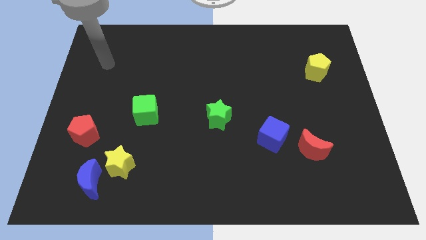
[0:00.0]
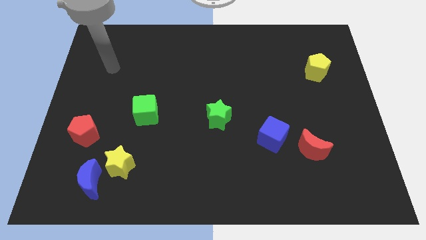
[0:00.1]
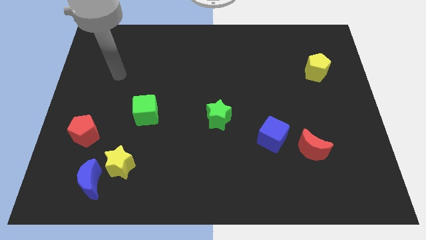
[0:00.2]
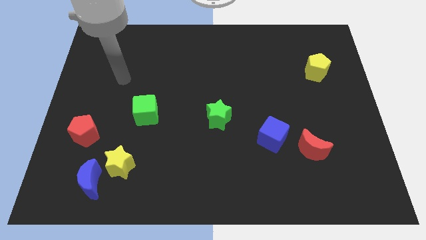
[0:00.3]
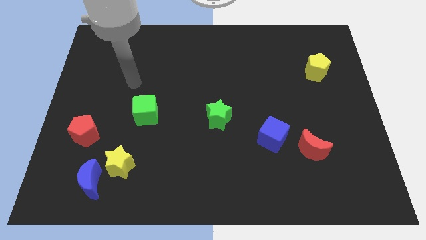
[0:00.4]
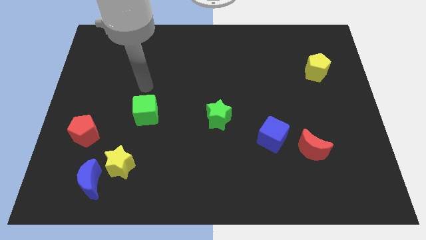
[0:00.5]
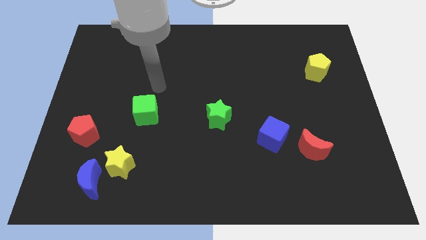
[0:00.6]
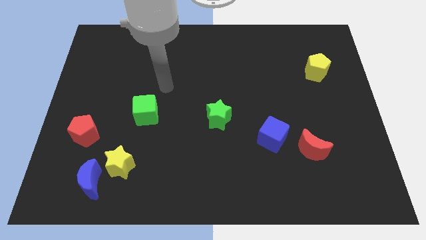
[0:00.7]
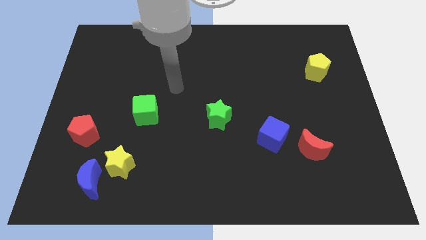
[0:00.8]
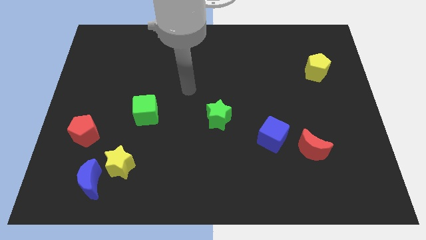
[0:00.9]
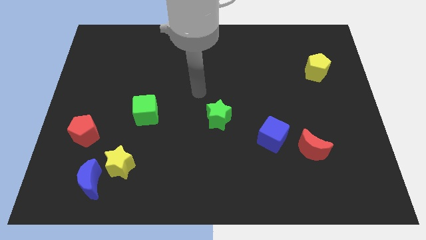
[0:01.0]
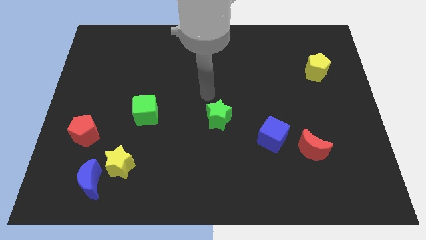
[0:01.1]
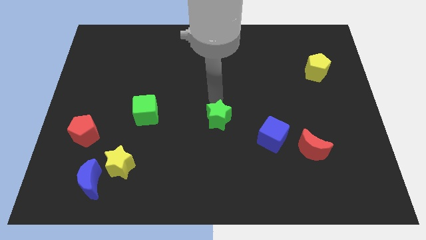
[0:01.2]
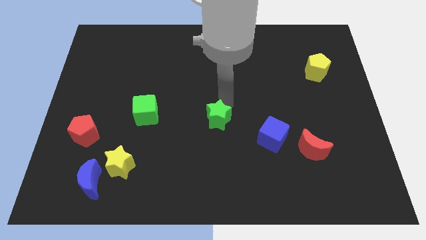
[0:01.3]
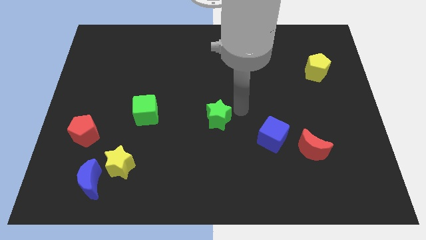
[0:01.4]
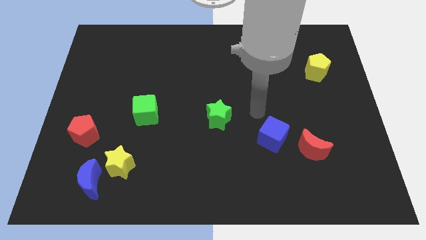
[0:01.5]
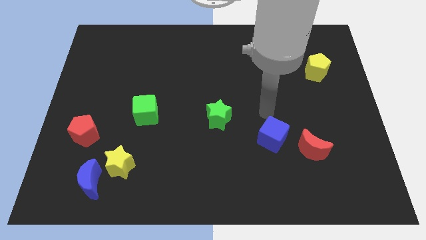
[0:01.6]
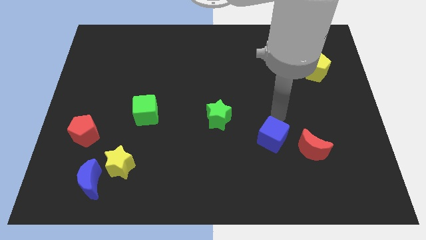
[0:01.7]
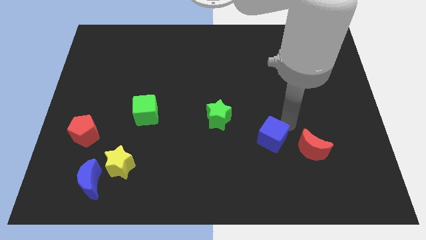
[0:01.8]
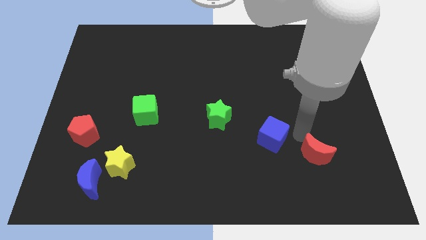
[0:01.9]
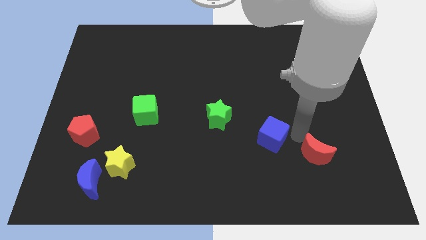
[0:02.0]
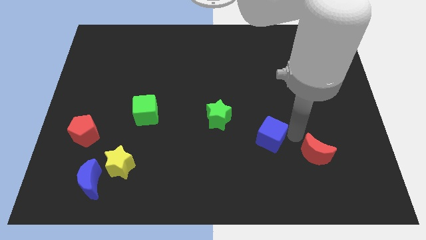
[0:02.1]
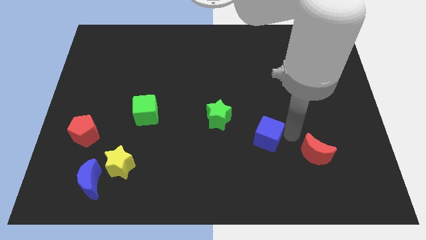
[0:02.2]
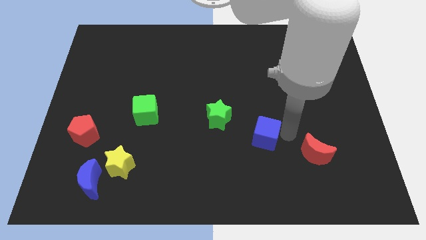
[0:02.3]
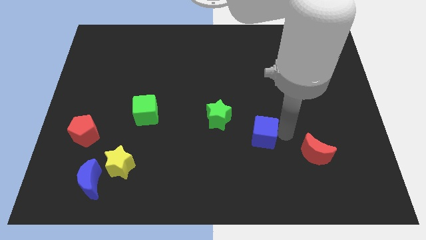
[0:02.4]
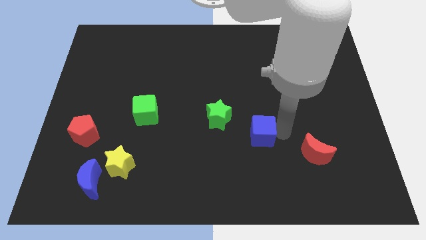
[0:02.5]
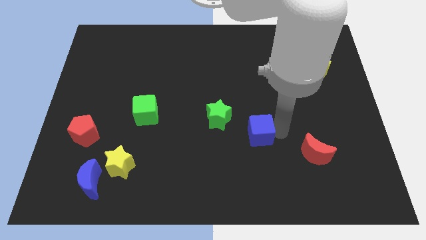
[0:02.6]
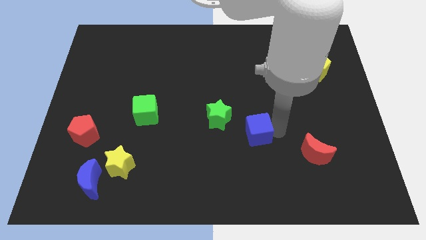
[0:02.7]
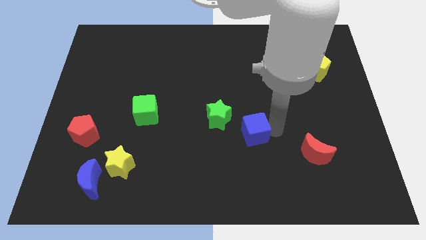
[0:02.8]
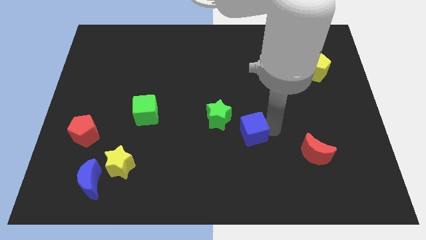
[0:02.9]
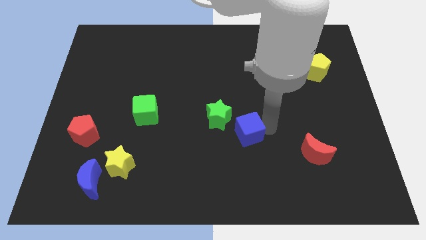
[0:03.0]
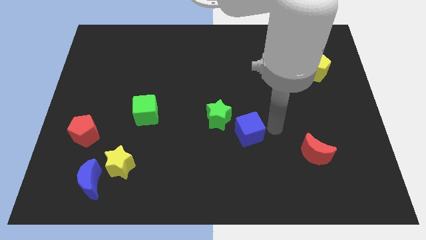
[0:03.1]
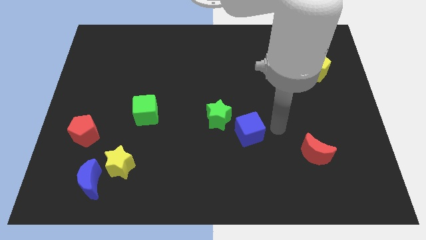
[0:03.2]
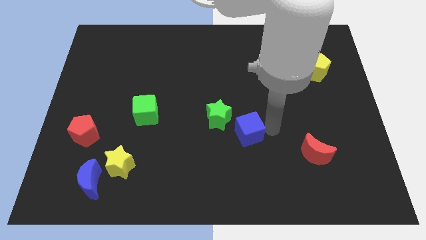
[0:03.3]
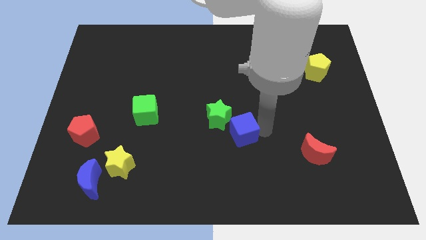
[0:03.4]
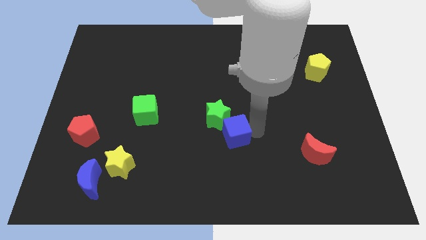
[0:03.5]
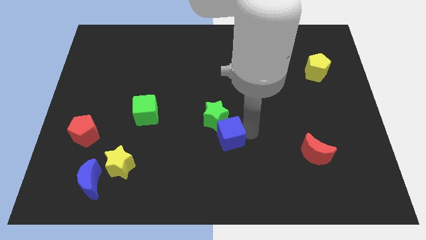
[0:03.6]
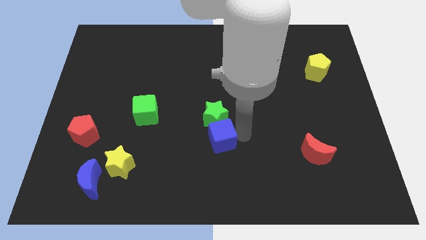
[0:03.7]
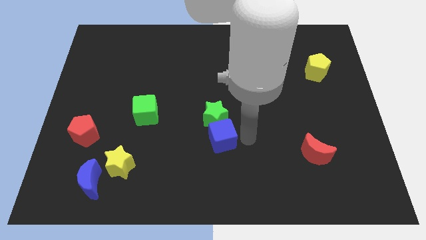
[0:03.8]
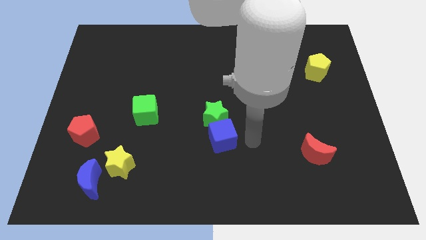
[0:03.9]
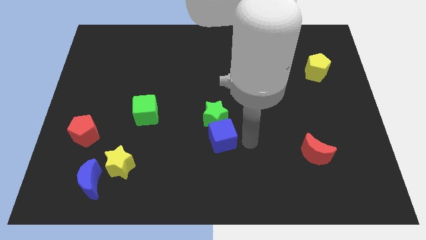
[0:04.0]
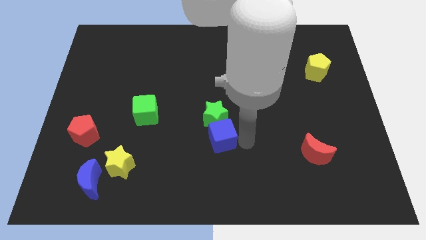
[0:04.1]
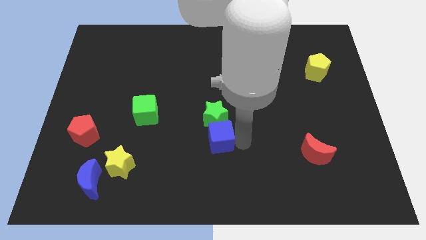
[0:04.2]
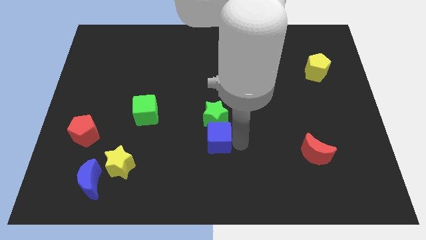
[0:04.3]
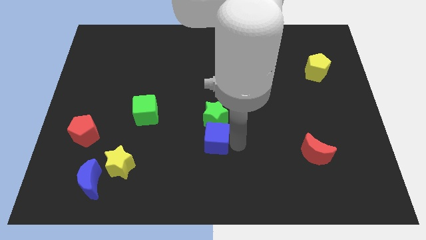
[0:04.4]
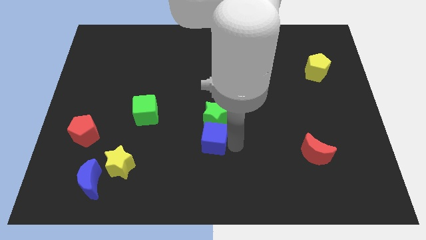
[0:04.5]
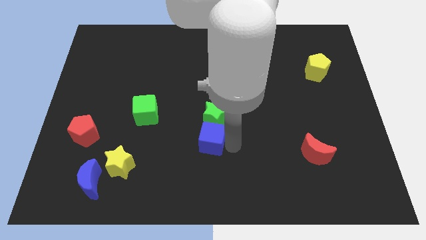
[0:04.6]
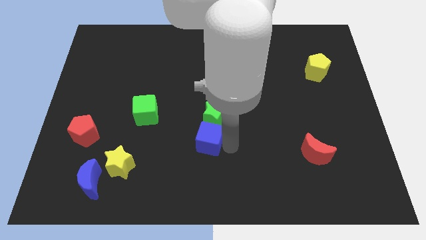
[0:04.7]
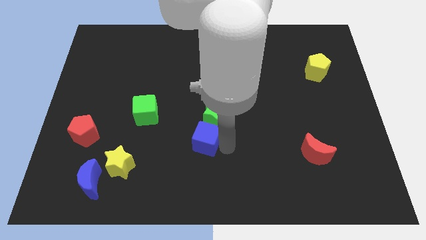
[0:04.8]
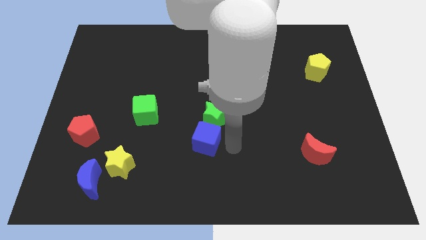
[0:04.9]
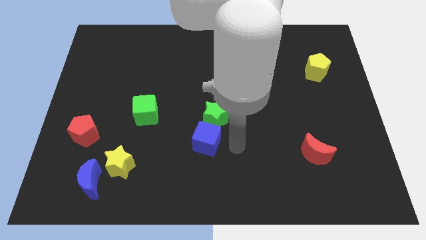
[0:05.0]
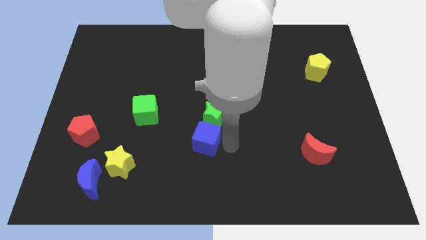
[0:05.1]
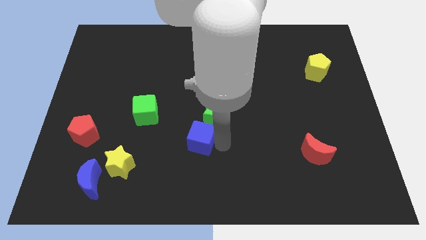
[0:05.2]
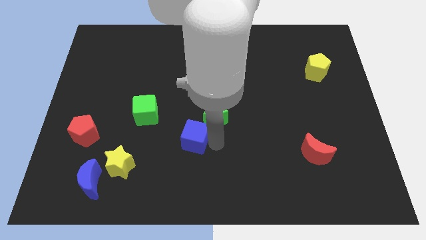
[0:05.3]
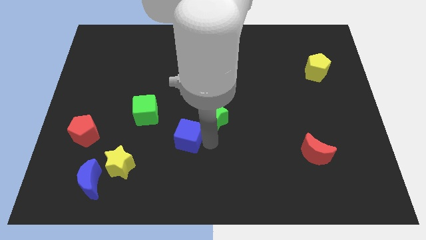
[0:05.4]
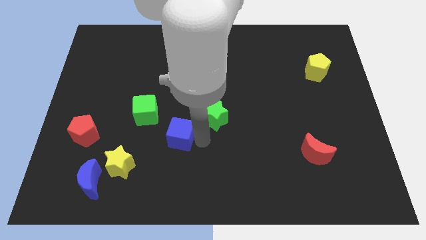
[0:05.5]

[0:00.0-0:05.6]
move the blue cube to the left

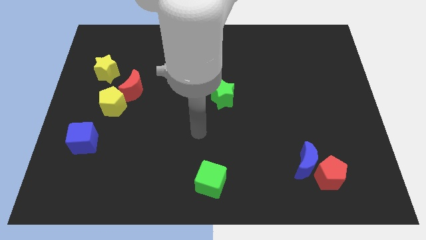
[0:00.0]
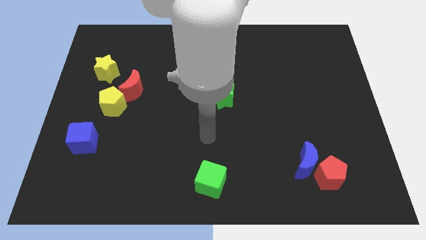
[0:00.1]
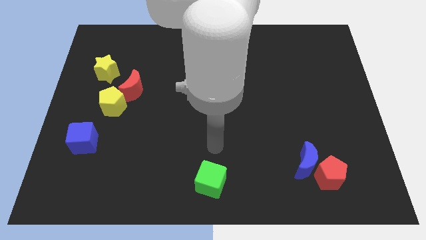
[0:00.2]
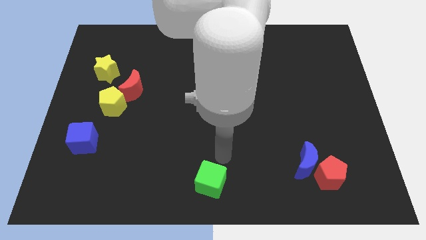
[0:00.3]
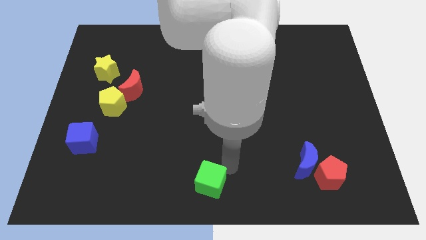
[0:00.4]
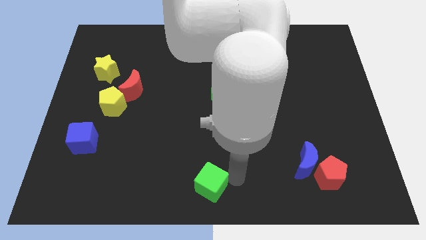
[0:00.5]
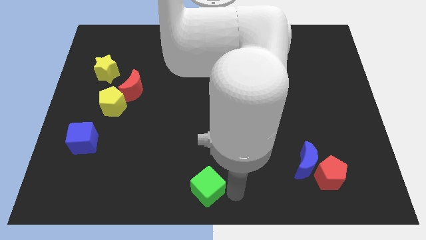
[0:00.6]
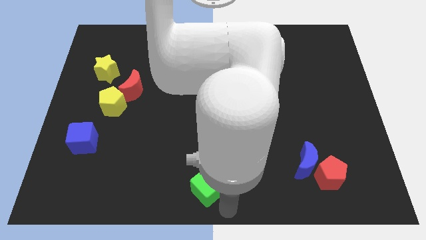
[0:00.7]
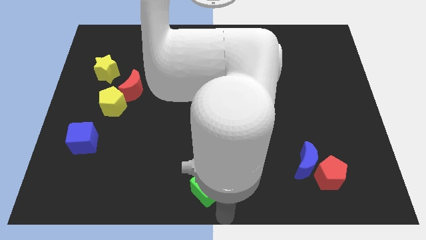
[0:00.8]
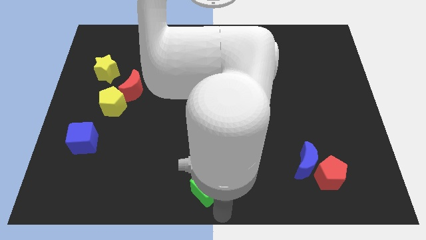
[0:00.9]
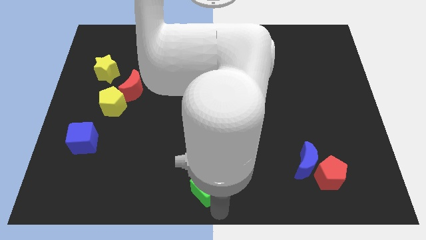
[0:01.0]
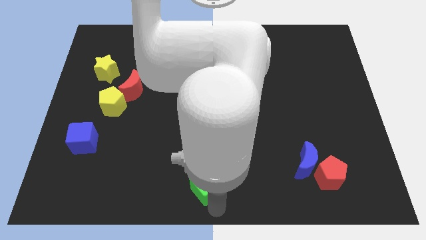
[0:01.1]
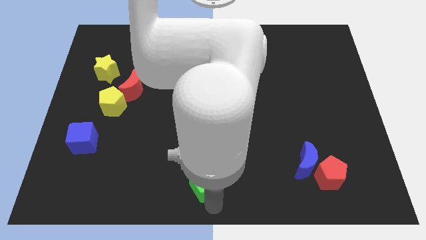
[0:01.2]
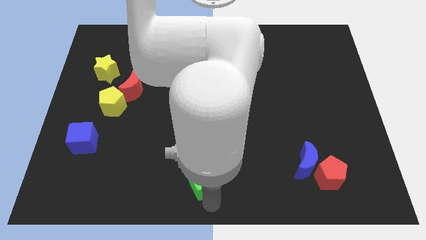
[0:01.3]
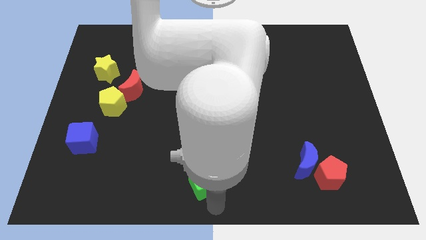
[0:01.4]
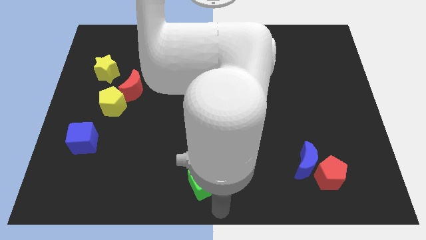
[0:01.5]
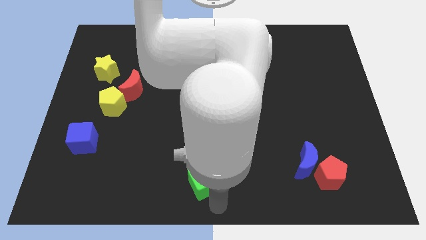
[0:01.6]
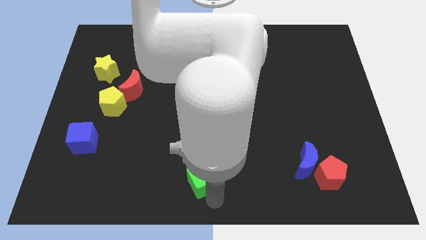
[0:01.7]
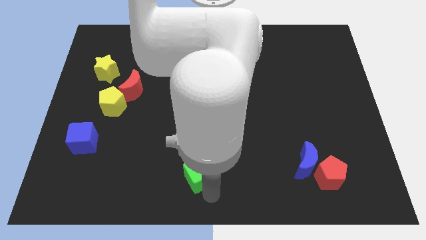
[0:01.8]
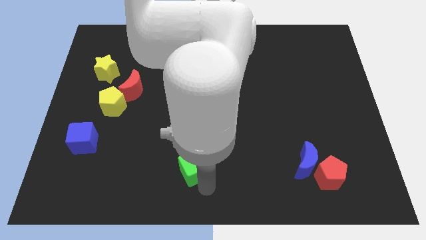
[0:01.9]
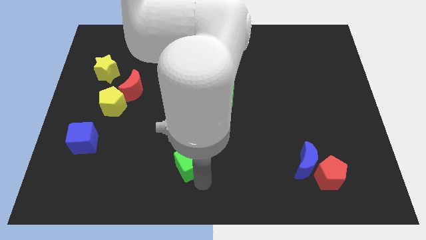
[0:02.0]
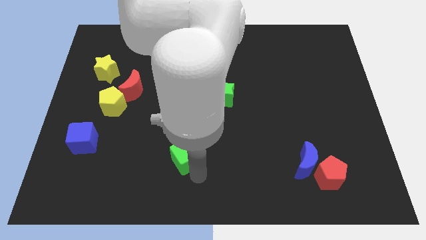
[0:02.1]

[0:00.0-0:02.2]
move the green cube diagonally up and to the left a bit
